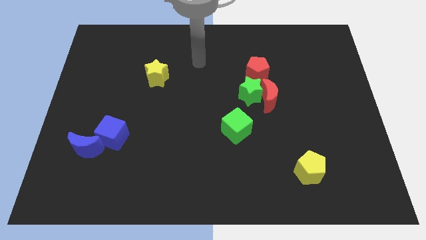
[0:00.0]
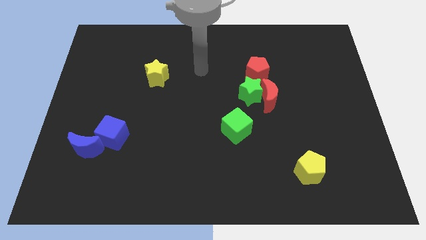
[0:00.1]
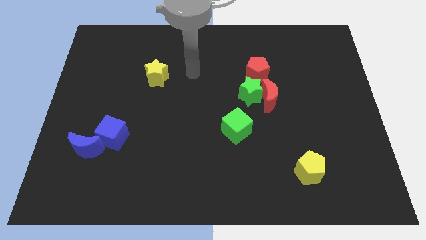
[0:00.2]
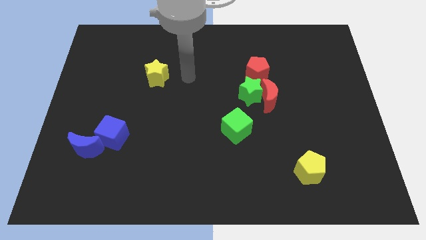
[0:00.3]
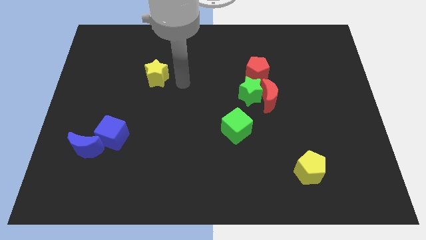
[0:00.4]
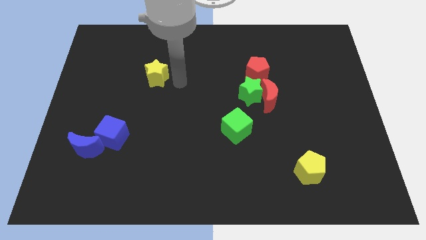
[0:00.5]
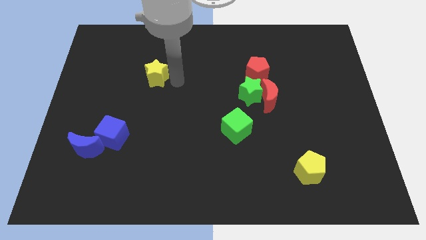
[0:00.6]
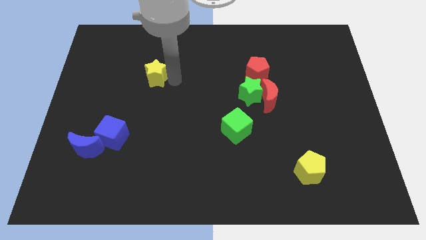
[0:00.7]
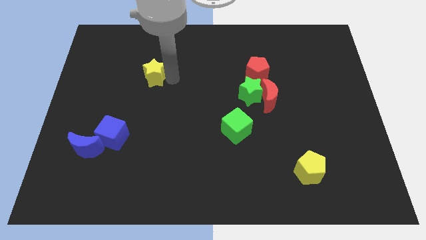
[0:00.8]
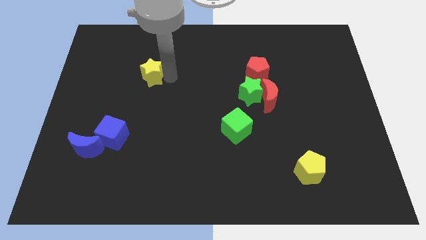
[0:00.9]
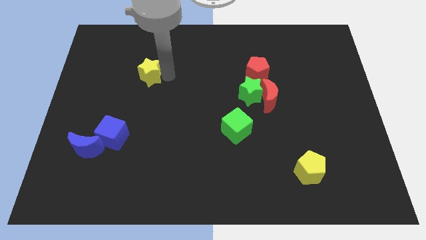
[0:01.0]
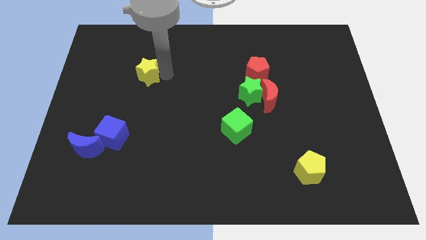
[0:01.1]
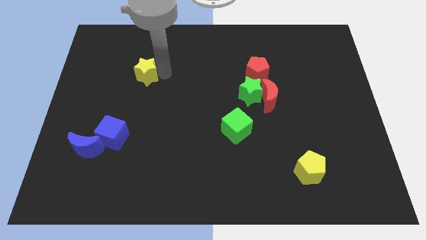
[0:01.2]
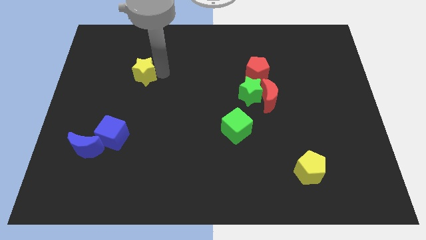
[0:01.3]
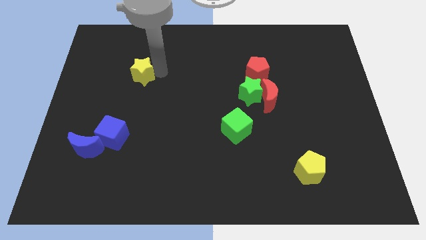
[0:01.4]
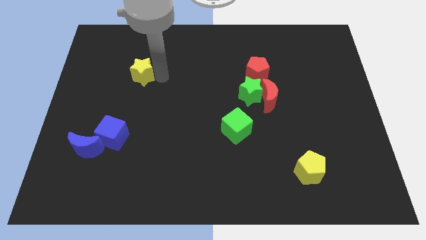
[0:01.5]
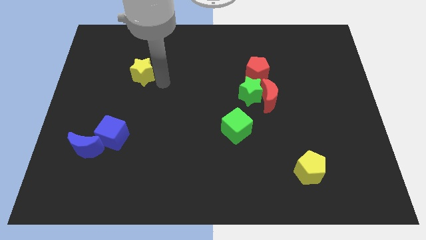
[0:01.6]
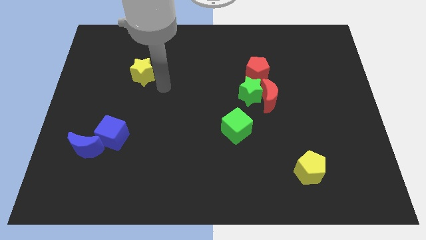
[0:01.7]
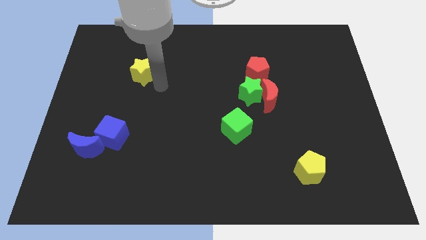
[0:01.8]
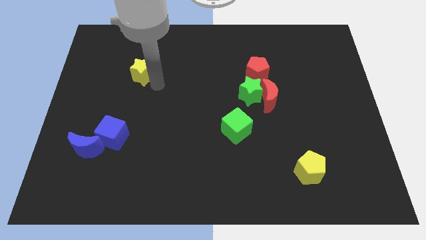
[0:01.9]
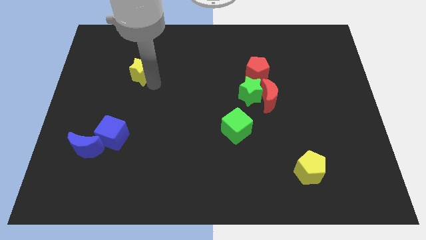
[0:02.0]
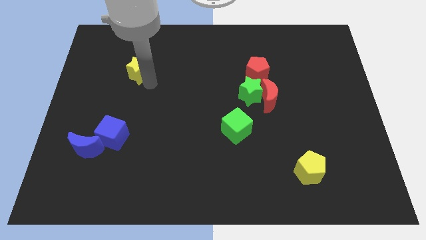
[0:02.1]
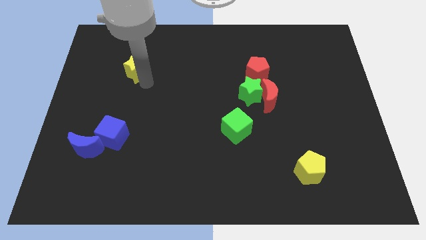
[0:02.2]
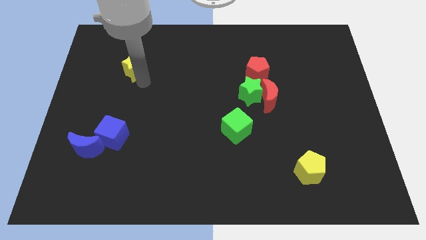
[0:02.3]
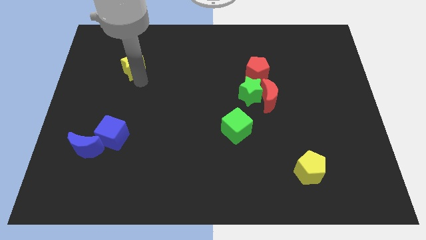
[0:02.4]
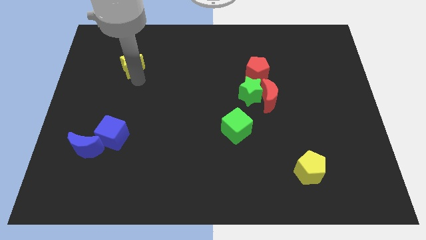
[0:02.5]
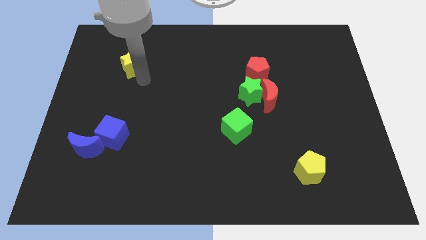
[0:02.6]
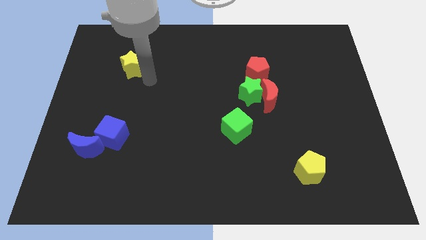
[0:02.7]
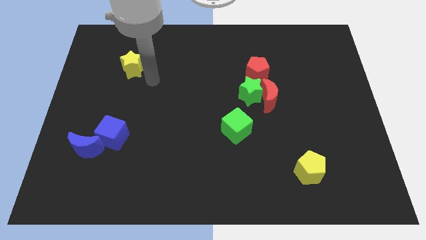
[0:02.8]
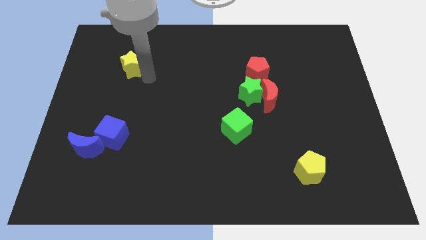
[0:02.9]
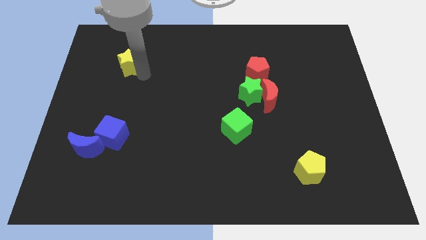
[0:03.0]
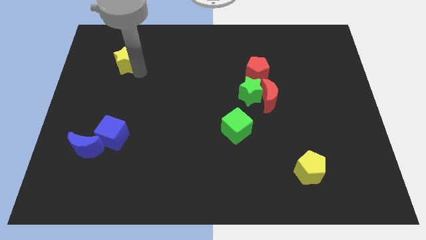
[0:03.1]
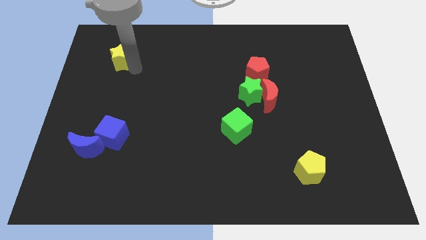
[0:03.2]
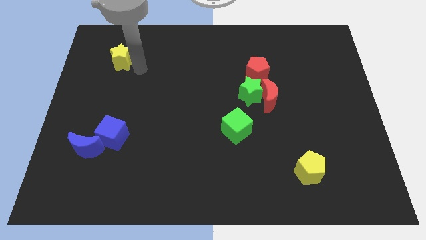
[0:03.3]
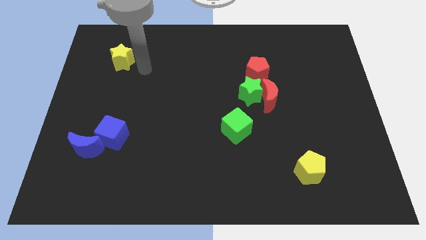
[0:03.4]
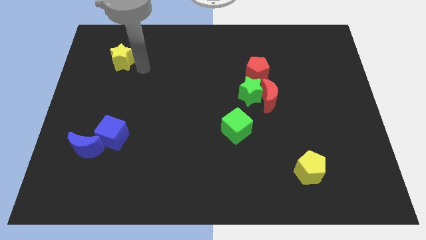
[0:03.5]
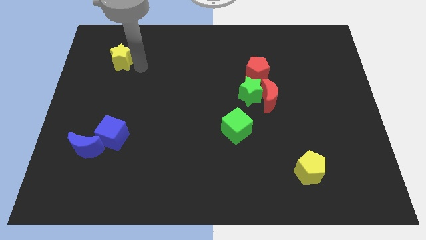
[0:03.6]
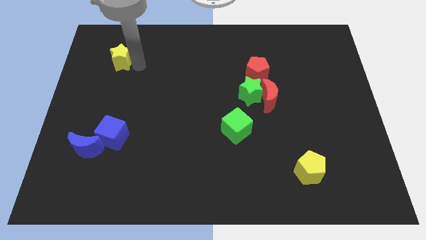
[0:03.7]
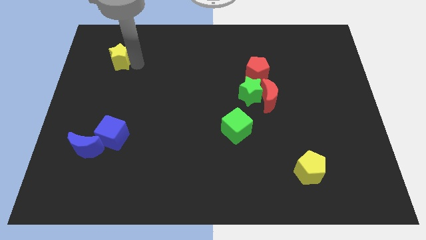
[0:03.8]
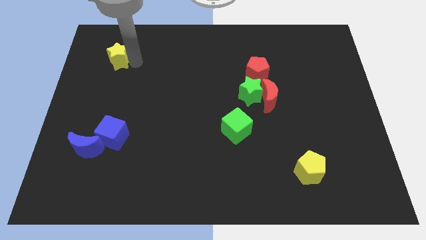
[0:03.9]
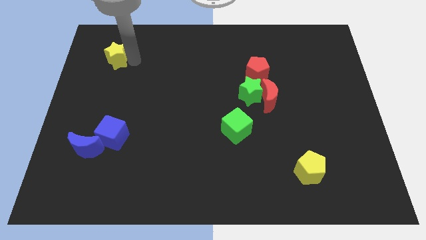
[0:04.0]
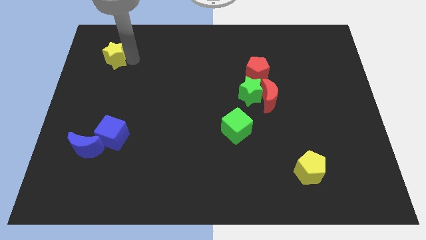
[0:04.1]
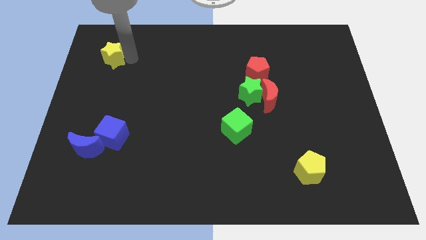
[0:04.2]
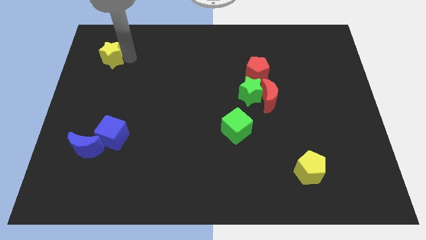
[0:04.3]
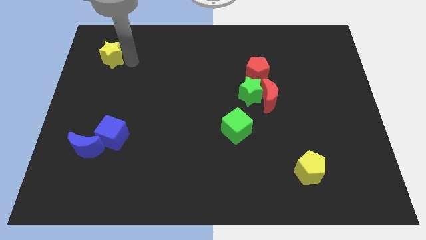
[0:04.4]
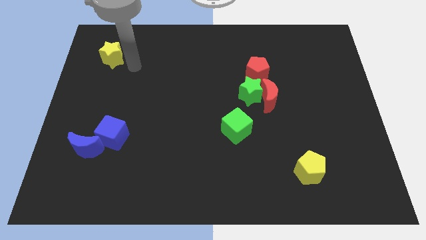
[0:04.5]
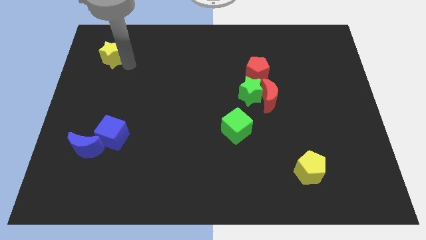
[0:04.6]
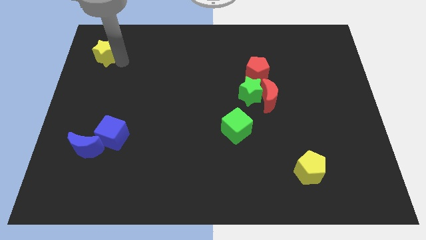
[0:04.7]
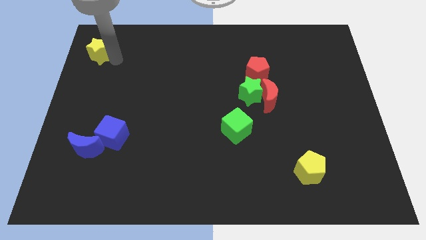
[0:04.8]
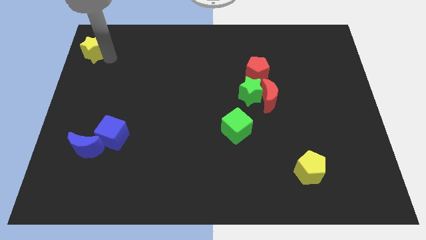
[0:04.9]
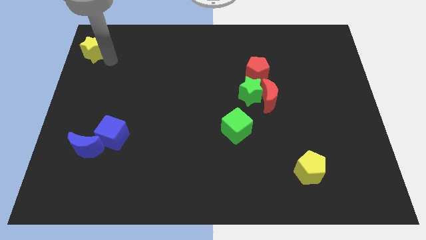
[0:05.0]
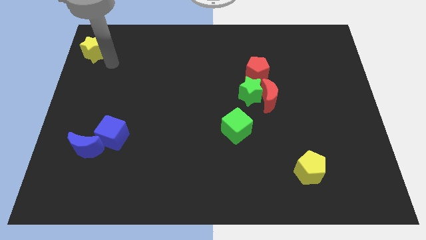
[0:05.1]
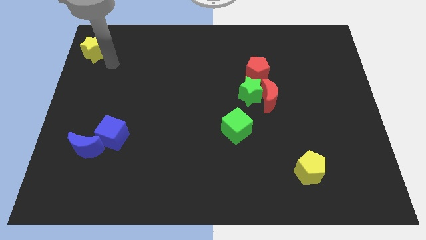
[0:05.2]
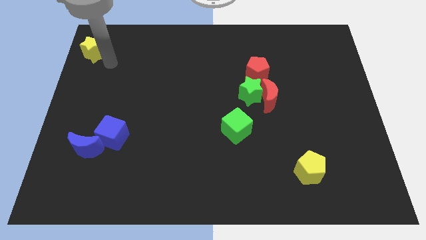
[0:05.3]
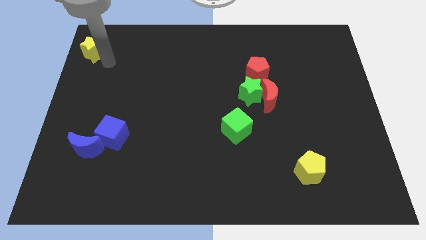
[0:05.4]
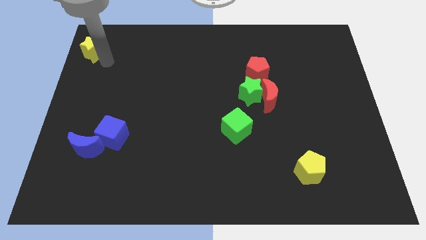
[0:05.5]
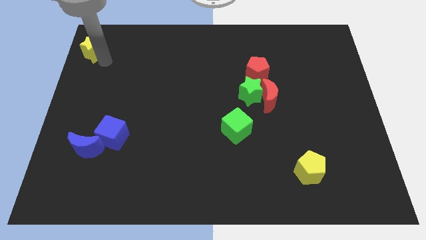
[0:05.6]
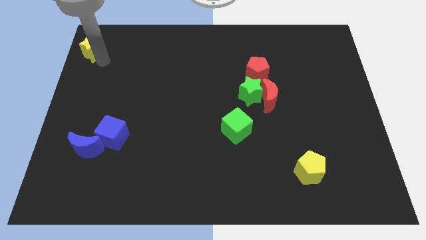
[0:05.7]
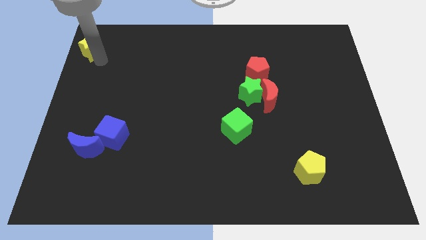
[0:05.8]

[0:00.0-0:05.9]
push the yellow star to the top left of the board
